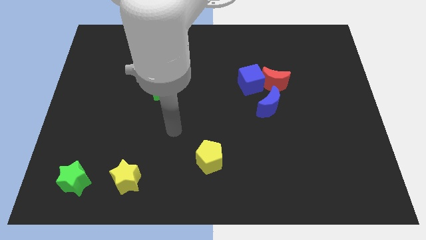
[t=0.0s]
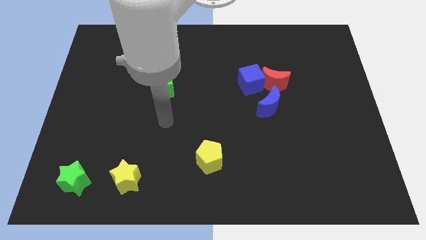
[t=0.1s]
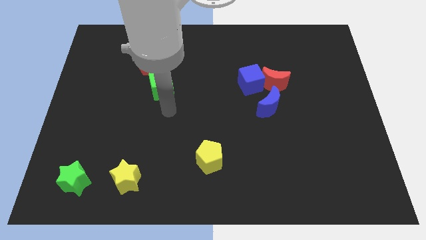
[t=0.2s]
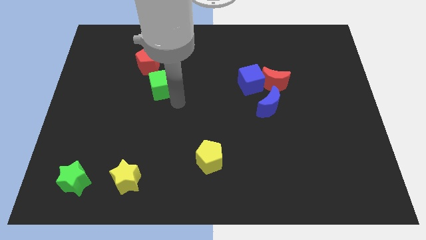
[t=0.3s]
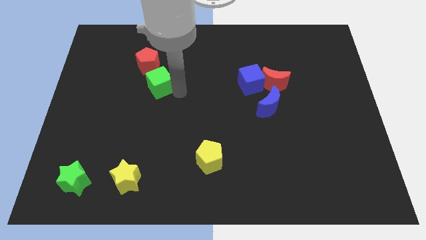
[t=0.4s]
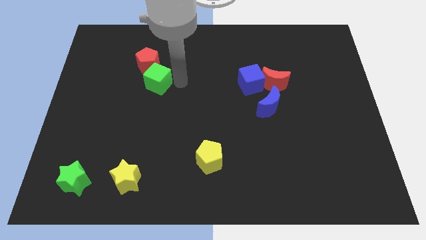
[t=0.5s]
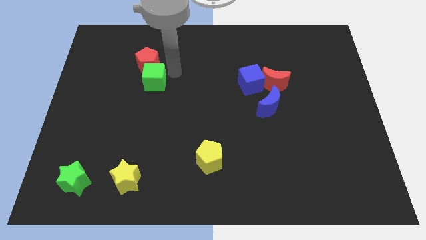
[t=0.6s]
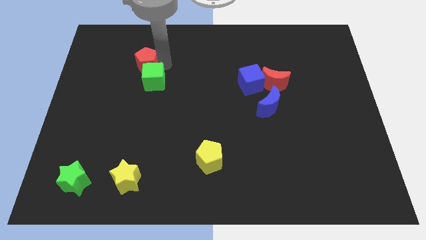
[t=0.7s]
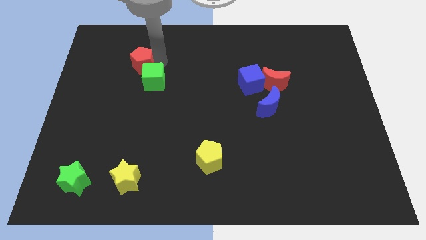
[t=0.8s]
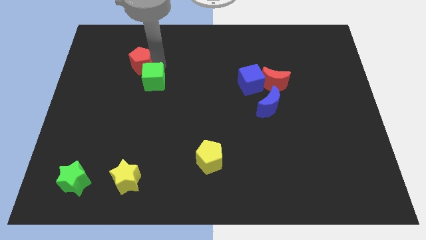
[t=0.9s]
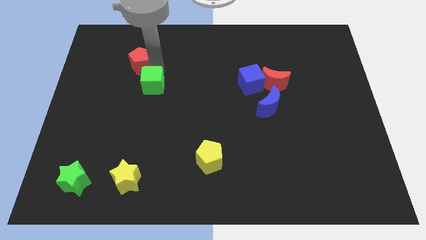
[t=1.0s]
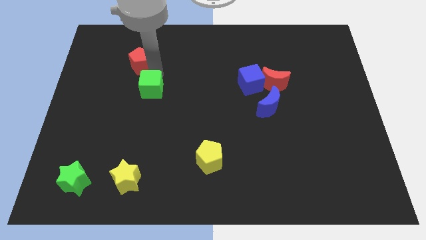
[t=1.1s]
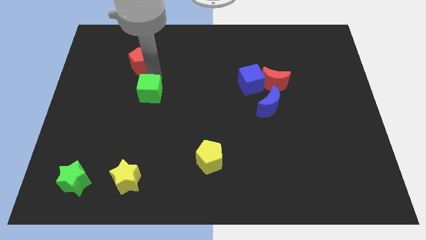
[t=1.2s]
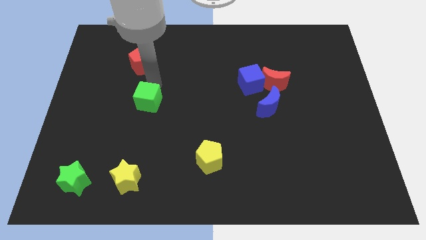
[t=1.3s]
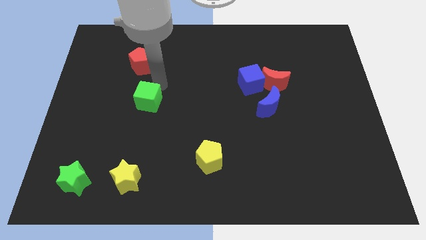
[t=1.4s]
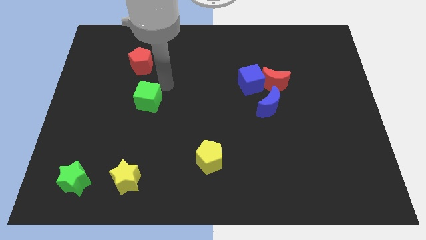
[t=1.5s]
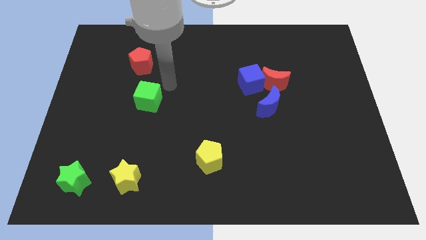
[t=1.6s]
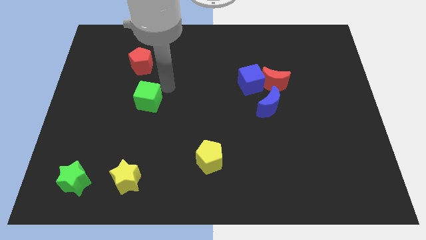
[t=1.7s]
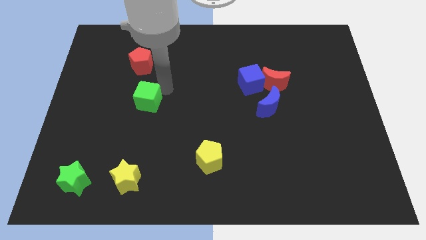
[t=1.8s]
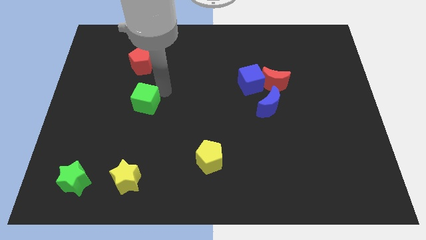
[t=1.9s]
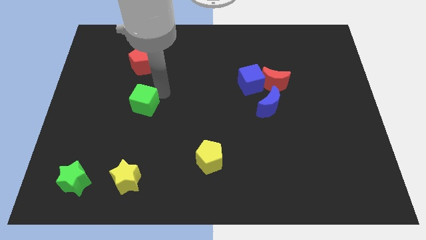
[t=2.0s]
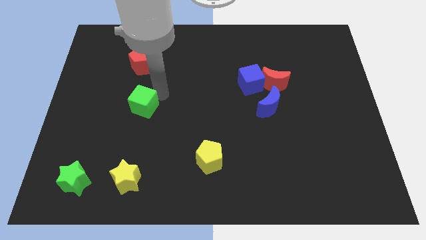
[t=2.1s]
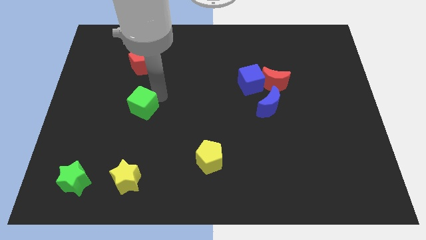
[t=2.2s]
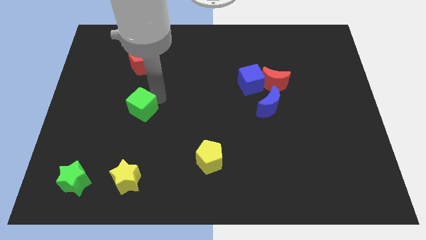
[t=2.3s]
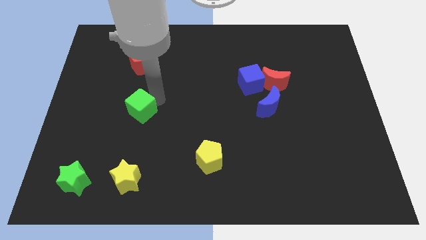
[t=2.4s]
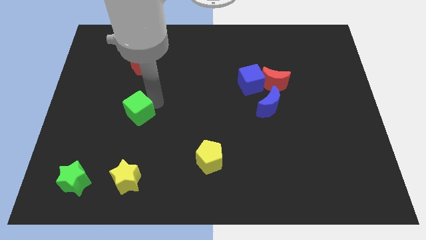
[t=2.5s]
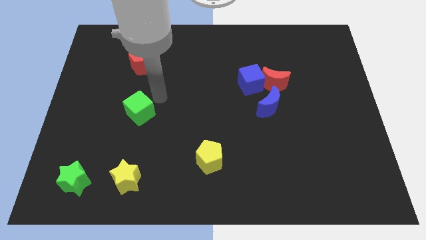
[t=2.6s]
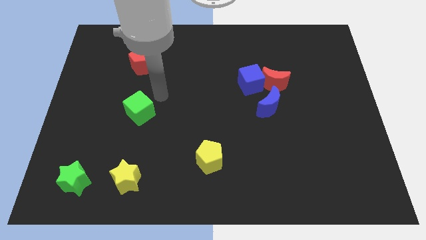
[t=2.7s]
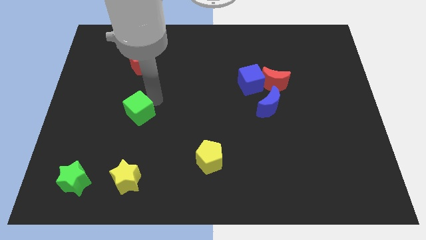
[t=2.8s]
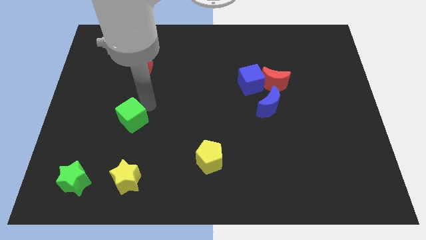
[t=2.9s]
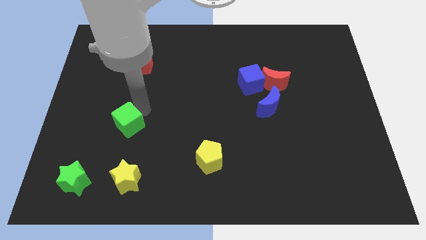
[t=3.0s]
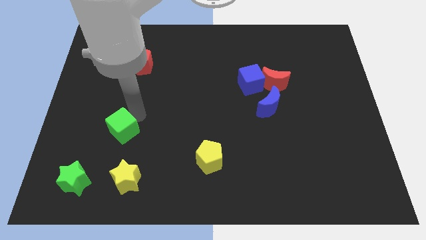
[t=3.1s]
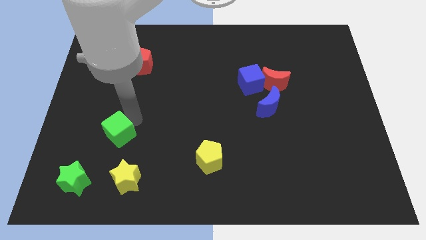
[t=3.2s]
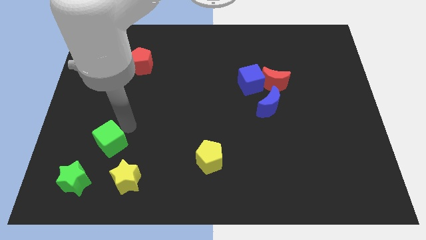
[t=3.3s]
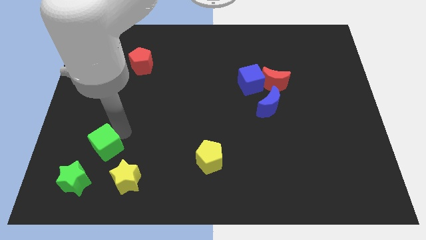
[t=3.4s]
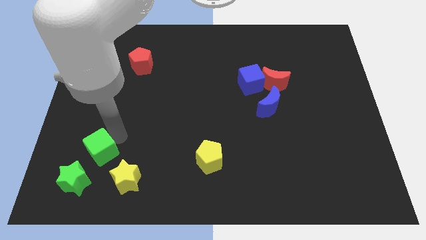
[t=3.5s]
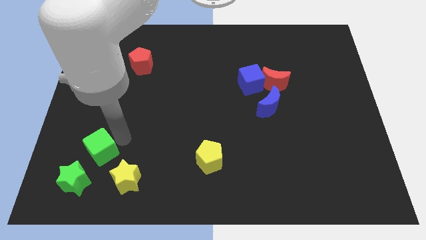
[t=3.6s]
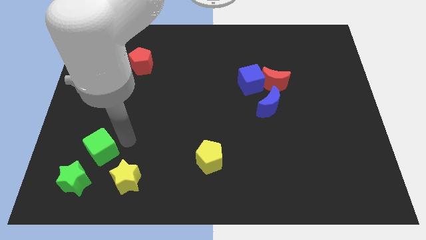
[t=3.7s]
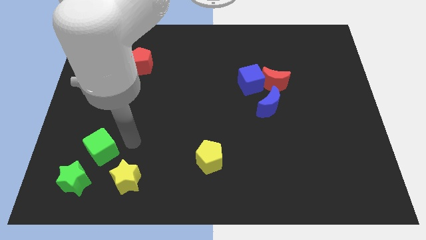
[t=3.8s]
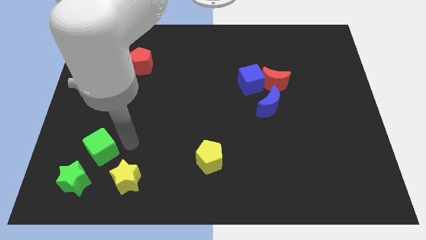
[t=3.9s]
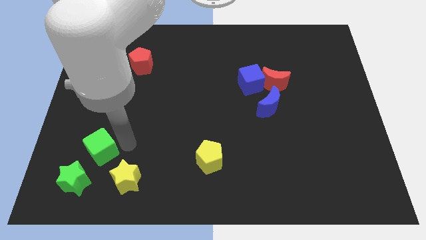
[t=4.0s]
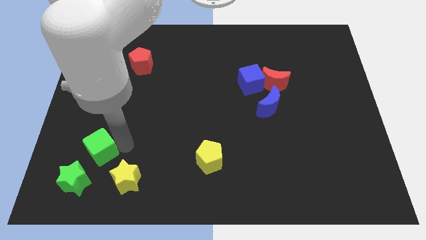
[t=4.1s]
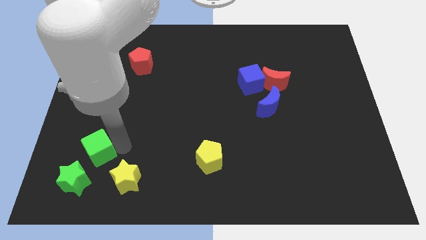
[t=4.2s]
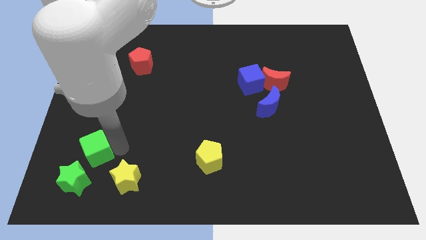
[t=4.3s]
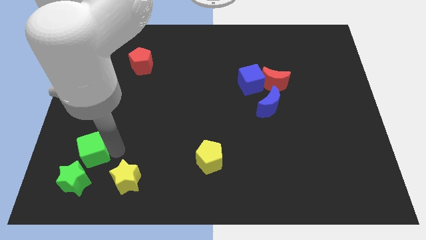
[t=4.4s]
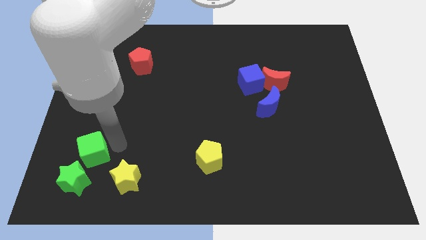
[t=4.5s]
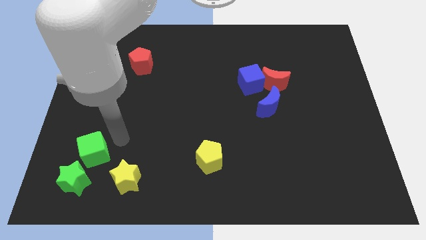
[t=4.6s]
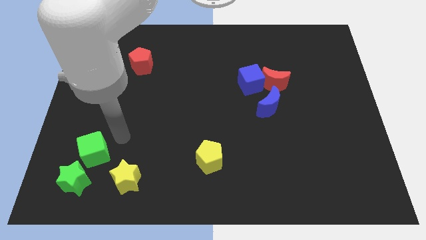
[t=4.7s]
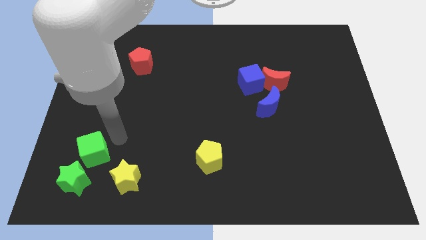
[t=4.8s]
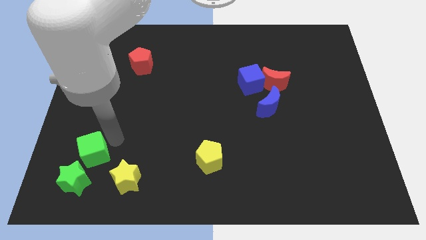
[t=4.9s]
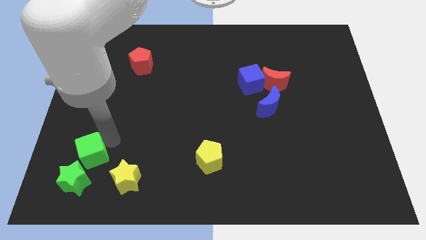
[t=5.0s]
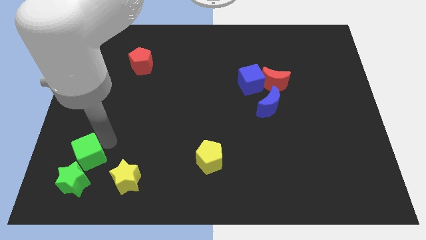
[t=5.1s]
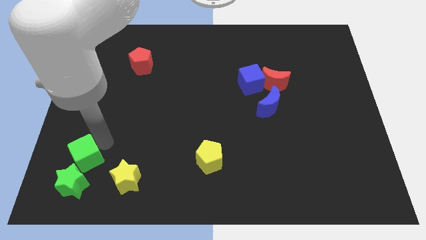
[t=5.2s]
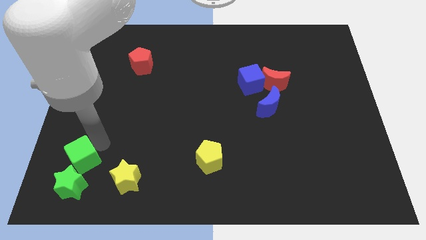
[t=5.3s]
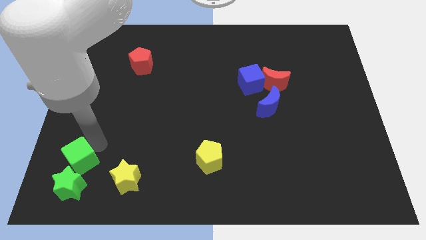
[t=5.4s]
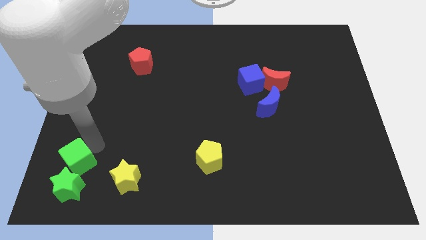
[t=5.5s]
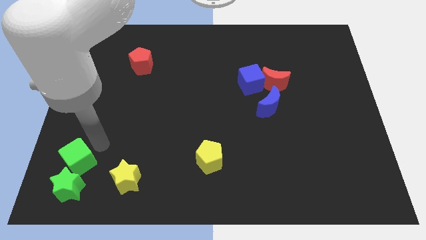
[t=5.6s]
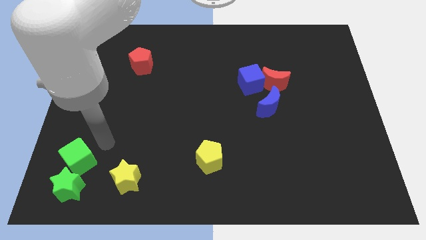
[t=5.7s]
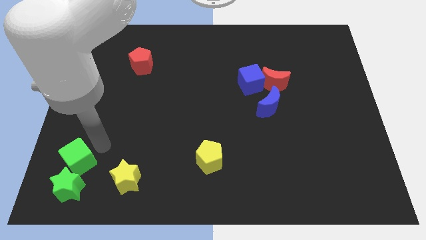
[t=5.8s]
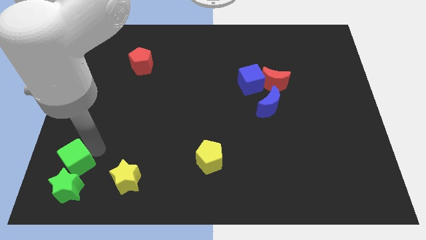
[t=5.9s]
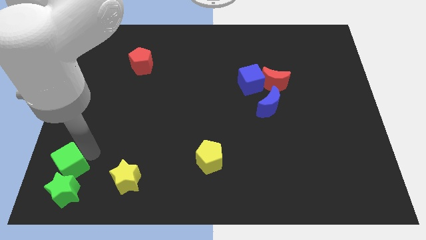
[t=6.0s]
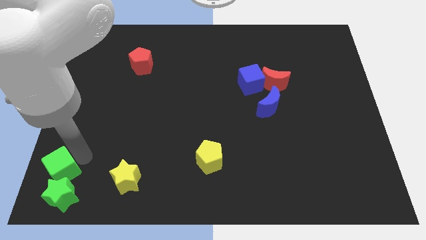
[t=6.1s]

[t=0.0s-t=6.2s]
move the green cube to the bottom left of the board

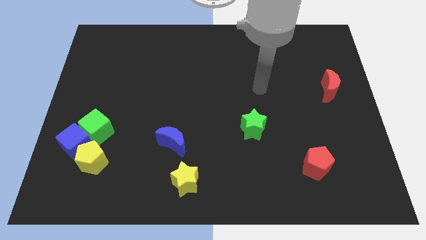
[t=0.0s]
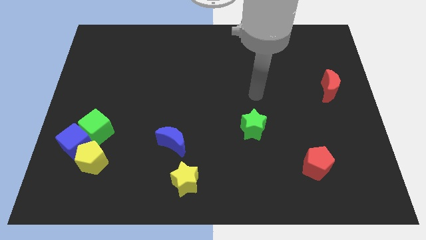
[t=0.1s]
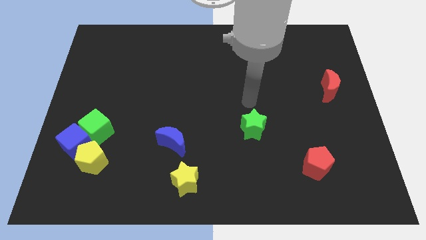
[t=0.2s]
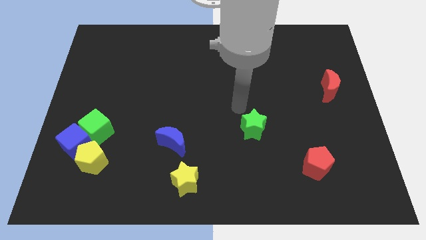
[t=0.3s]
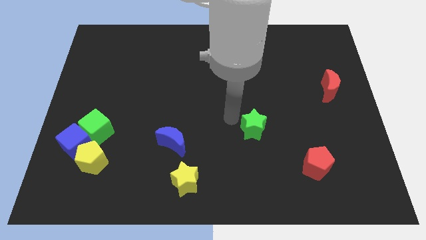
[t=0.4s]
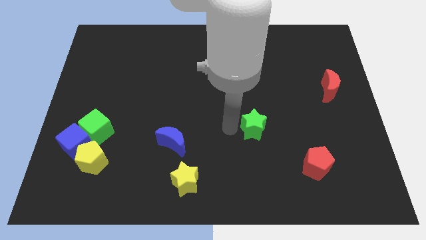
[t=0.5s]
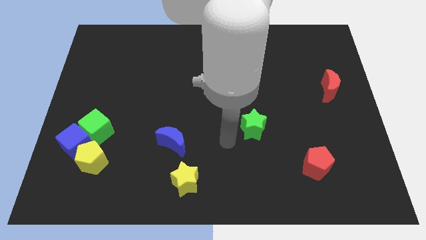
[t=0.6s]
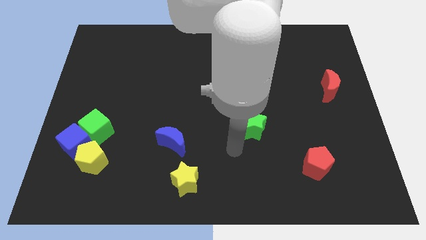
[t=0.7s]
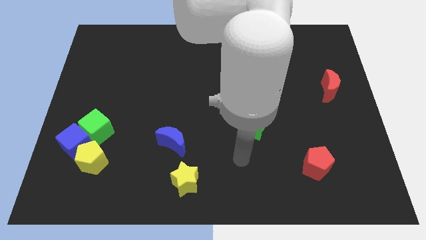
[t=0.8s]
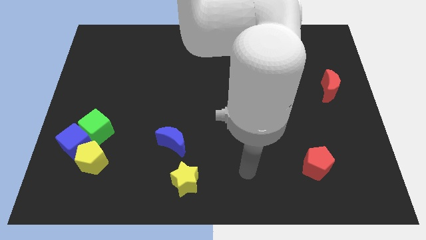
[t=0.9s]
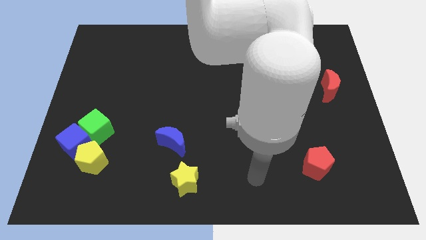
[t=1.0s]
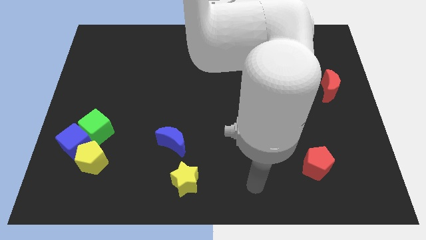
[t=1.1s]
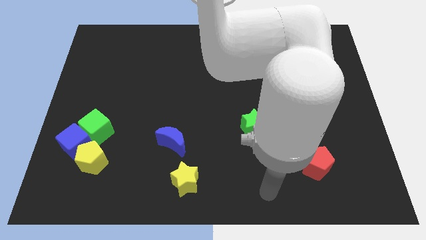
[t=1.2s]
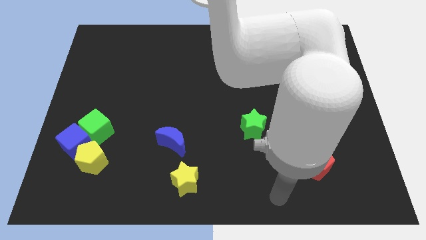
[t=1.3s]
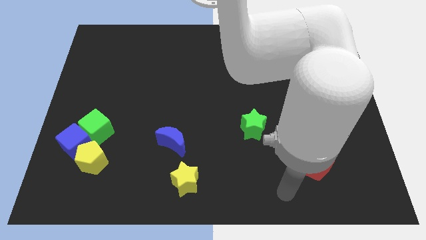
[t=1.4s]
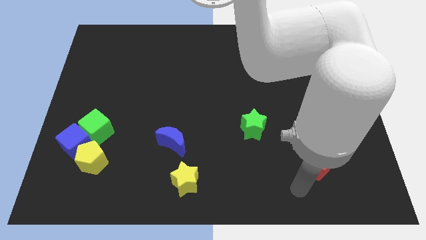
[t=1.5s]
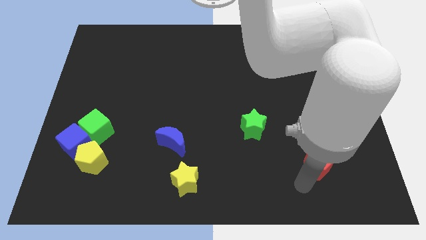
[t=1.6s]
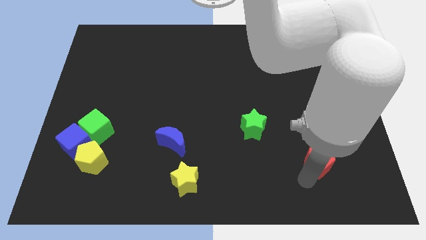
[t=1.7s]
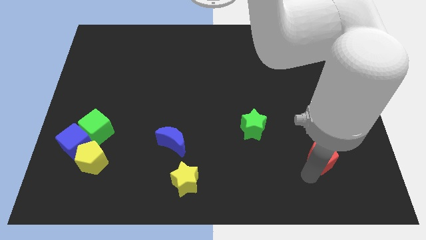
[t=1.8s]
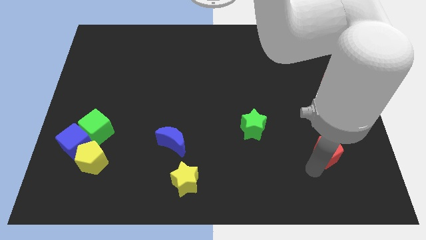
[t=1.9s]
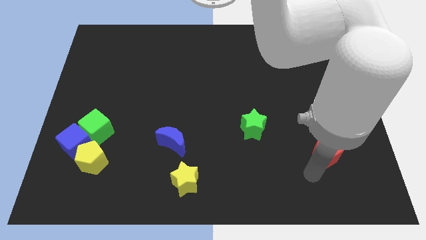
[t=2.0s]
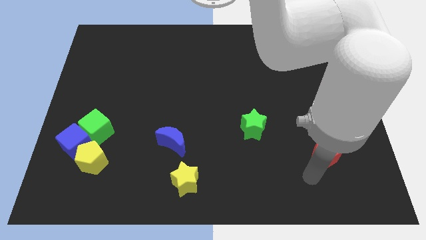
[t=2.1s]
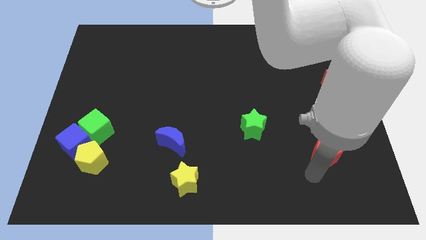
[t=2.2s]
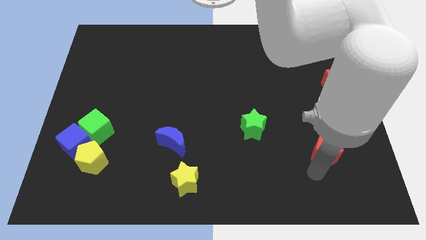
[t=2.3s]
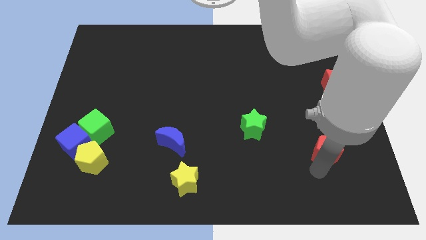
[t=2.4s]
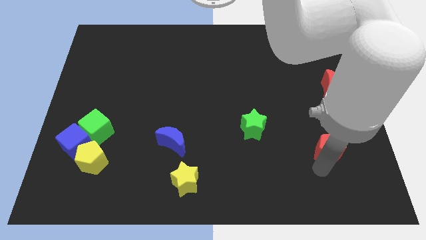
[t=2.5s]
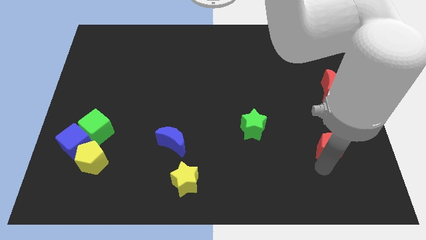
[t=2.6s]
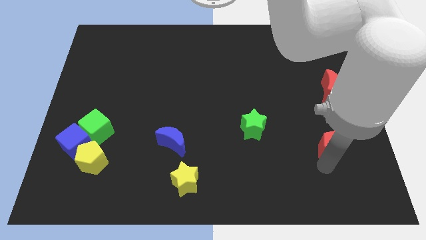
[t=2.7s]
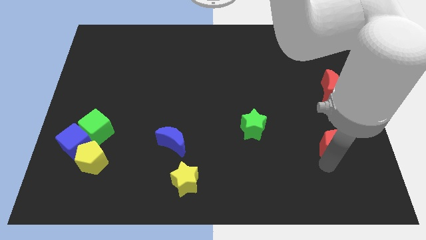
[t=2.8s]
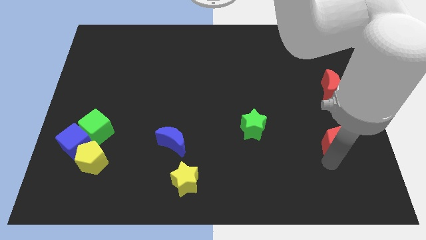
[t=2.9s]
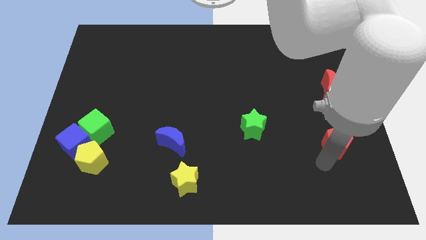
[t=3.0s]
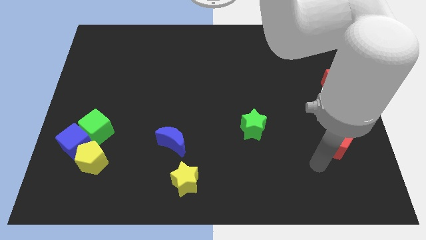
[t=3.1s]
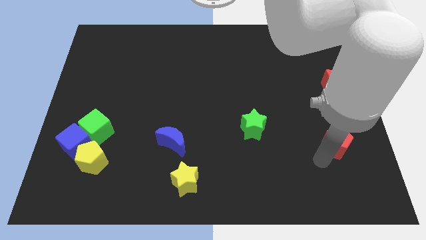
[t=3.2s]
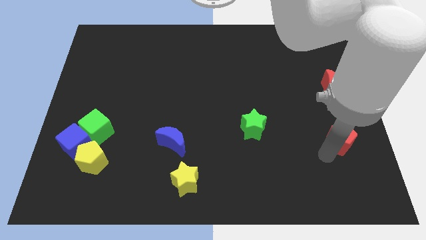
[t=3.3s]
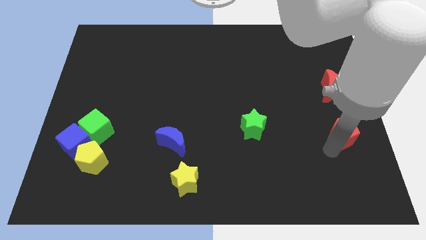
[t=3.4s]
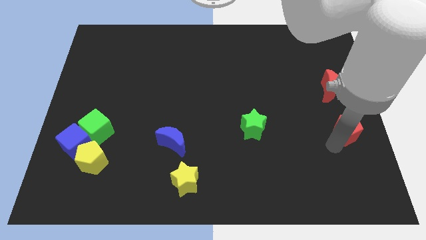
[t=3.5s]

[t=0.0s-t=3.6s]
move the red pentagon to the center right
